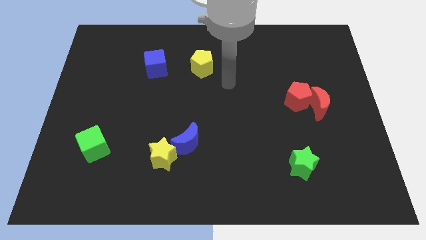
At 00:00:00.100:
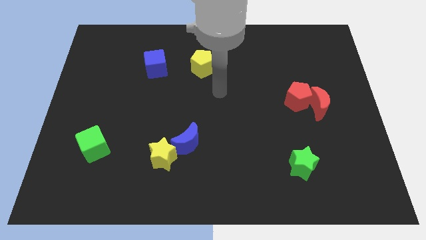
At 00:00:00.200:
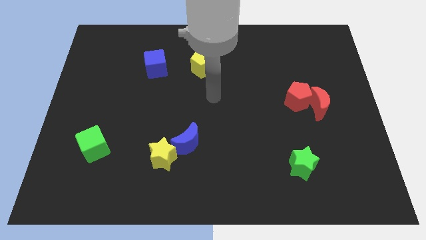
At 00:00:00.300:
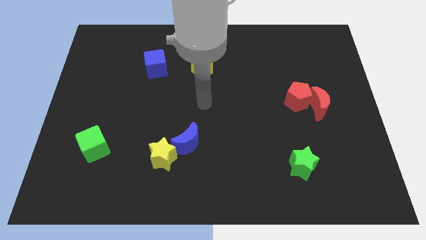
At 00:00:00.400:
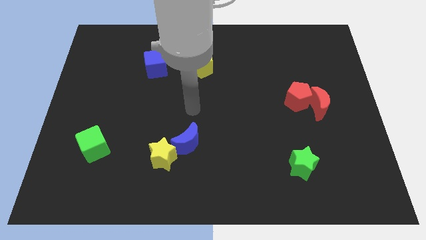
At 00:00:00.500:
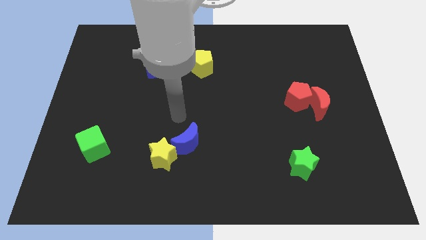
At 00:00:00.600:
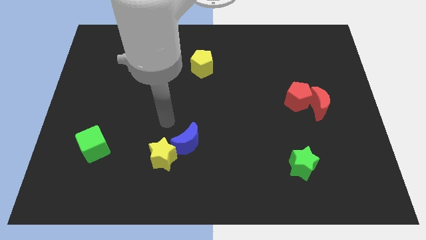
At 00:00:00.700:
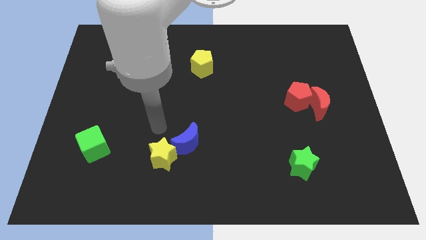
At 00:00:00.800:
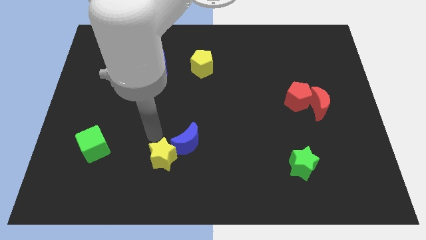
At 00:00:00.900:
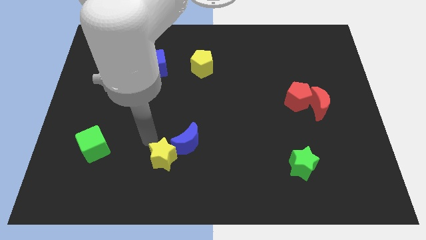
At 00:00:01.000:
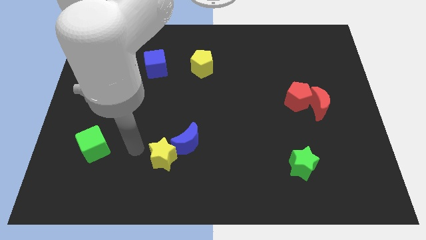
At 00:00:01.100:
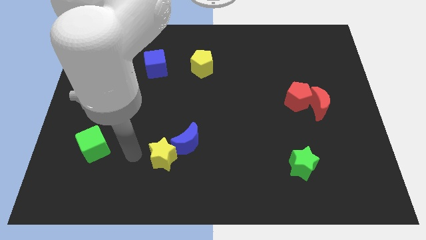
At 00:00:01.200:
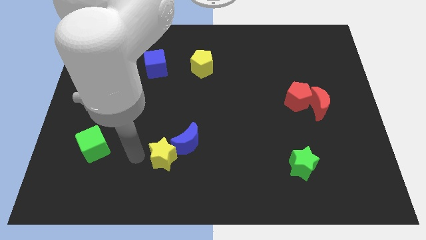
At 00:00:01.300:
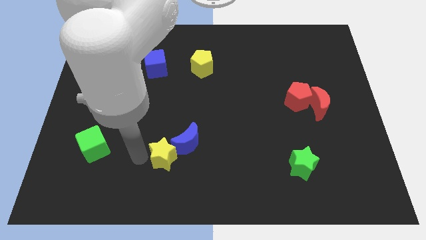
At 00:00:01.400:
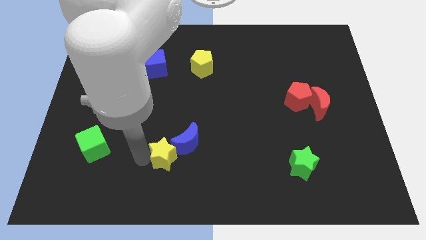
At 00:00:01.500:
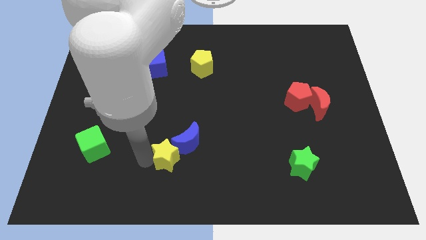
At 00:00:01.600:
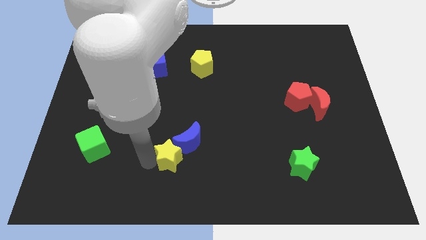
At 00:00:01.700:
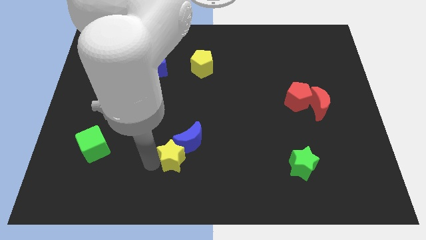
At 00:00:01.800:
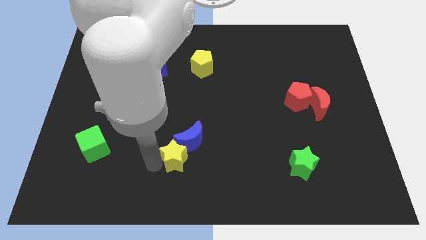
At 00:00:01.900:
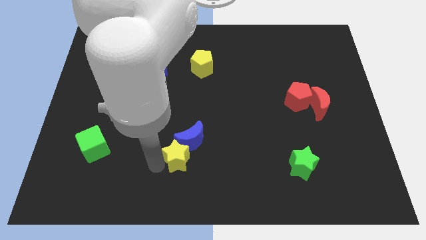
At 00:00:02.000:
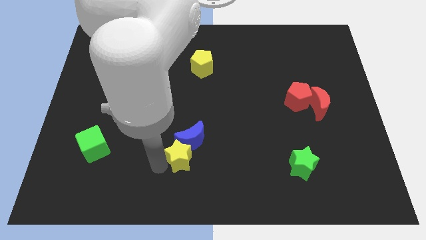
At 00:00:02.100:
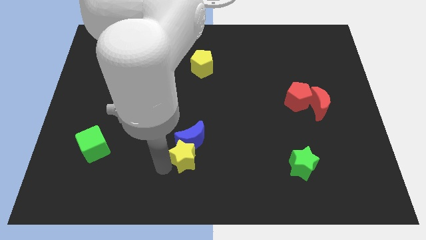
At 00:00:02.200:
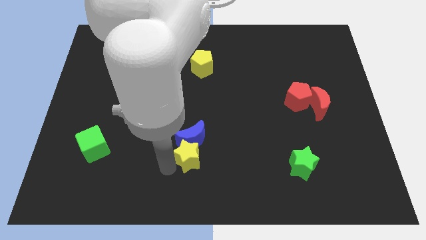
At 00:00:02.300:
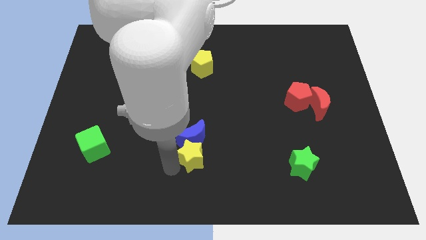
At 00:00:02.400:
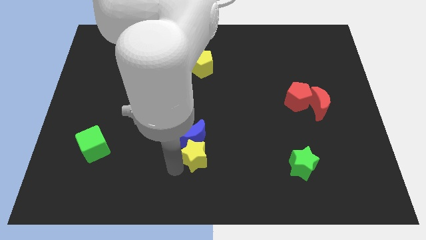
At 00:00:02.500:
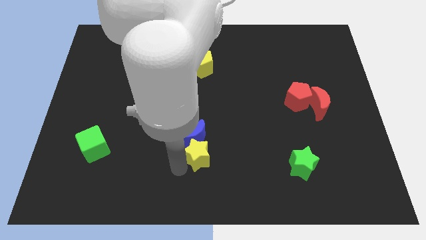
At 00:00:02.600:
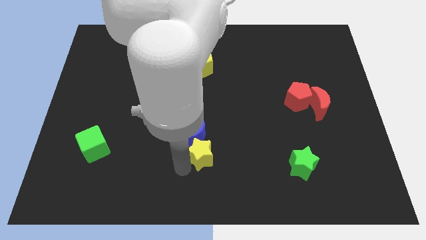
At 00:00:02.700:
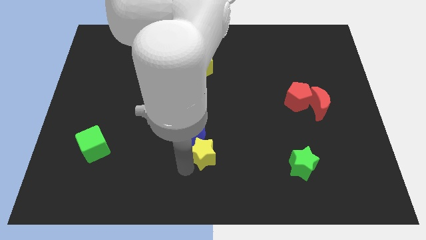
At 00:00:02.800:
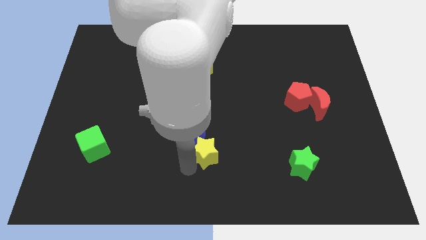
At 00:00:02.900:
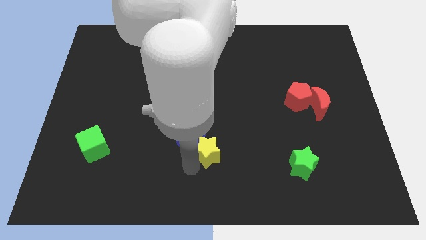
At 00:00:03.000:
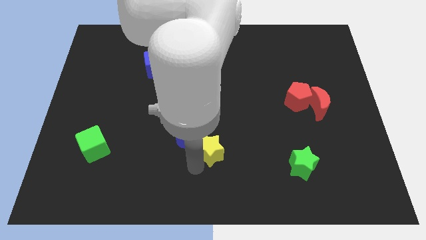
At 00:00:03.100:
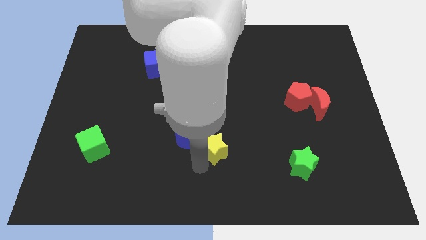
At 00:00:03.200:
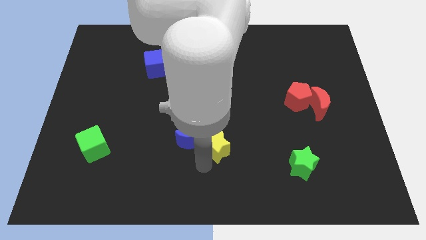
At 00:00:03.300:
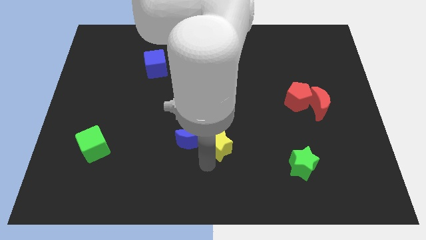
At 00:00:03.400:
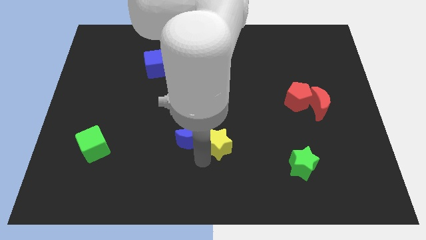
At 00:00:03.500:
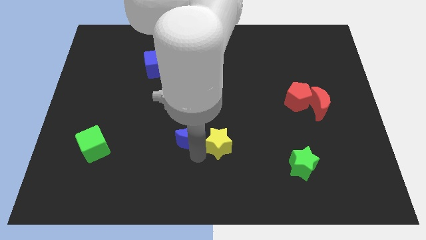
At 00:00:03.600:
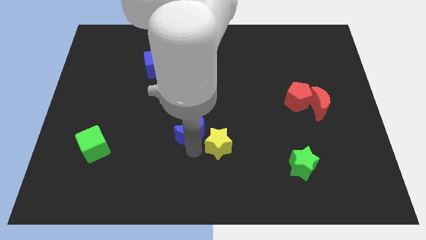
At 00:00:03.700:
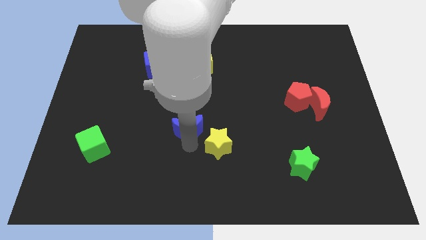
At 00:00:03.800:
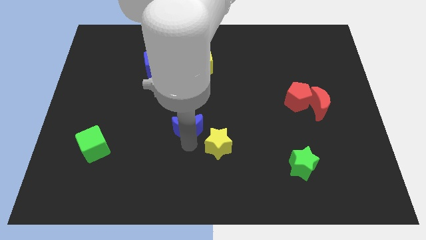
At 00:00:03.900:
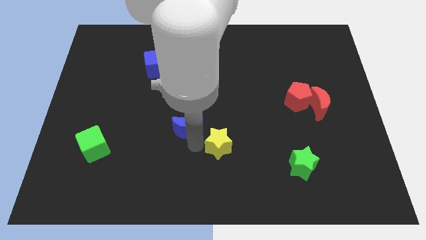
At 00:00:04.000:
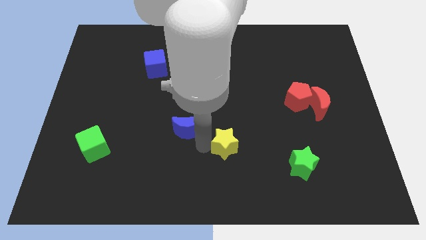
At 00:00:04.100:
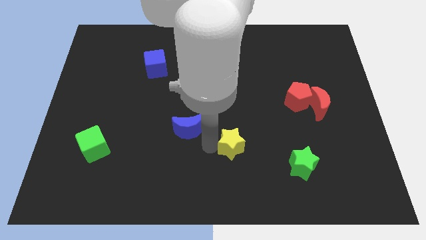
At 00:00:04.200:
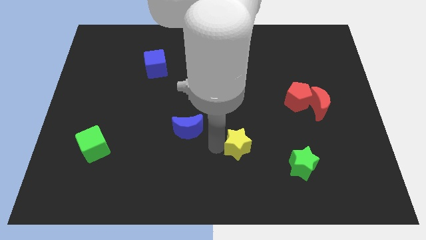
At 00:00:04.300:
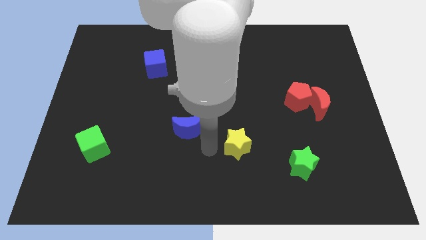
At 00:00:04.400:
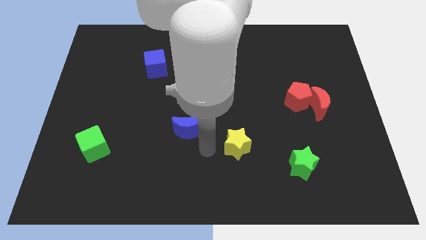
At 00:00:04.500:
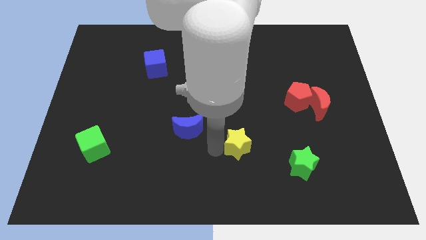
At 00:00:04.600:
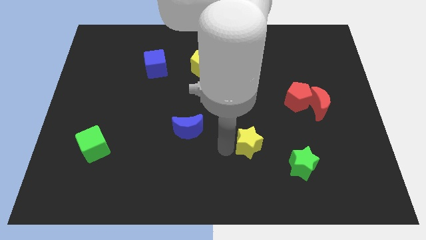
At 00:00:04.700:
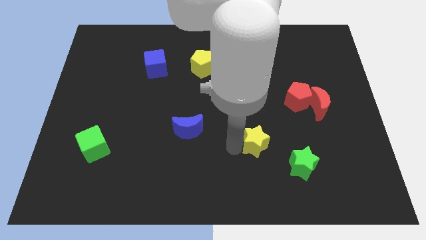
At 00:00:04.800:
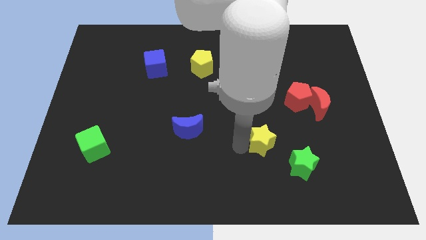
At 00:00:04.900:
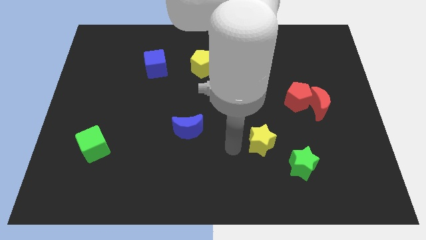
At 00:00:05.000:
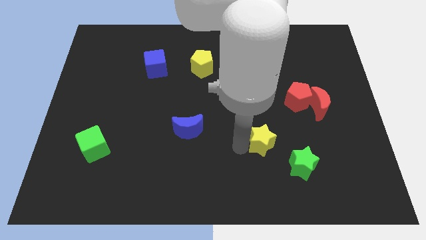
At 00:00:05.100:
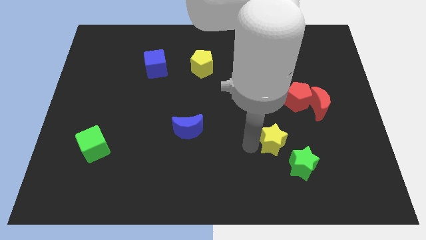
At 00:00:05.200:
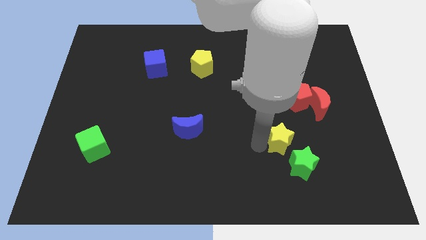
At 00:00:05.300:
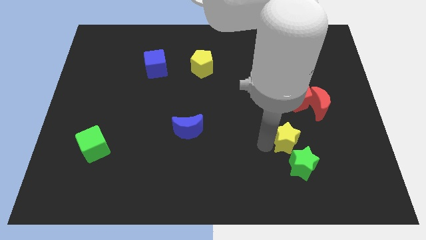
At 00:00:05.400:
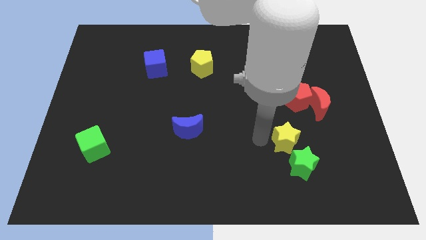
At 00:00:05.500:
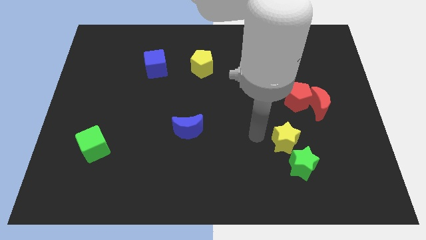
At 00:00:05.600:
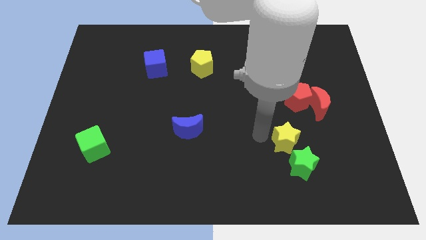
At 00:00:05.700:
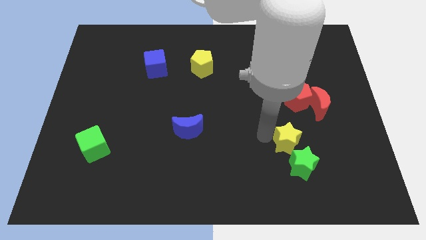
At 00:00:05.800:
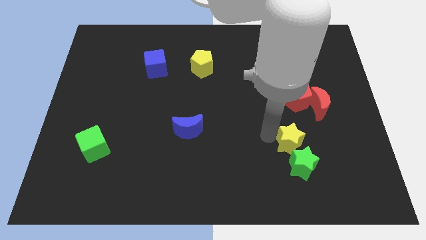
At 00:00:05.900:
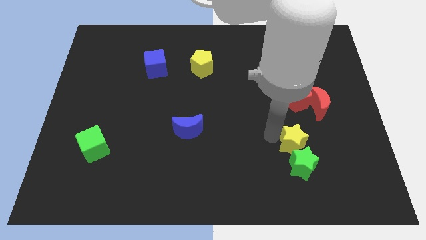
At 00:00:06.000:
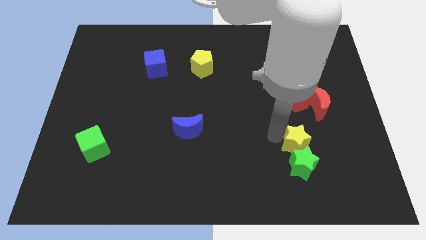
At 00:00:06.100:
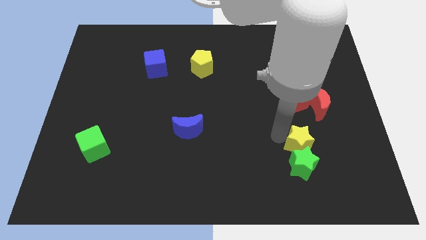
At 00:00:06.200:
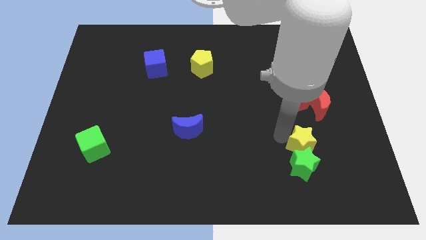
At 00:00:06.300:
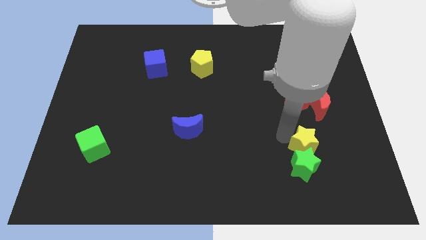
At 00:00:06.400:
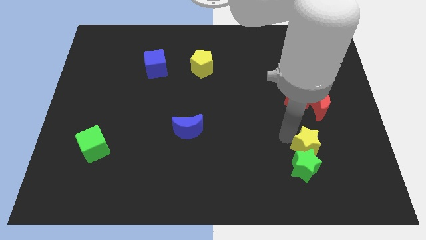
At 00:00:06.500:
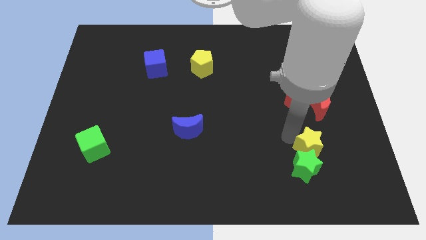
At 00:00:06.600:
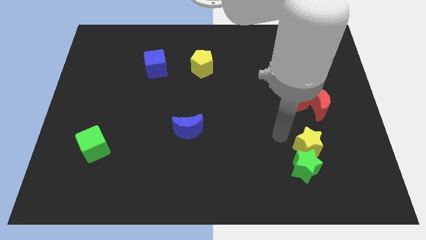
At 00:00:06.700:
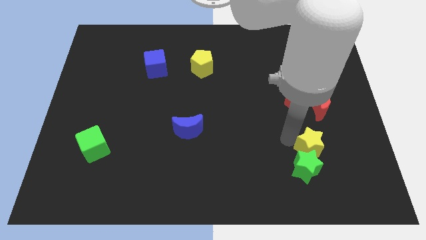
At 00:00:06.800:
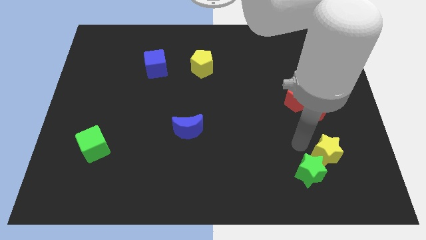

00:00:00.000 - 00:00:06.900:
move the yellow star just right of the green star
